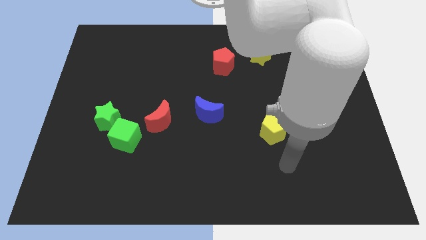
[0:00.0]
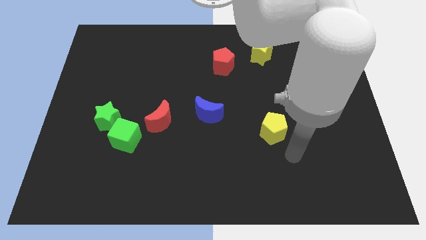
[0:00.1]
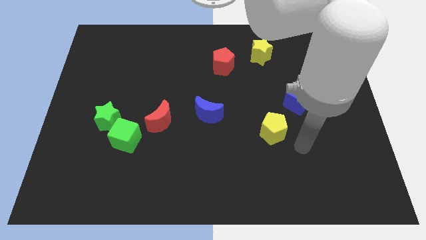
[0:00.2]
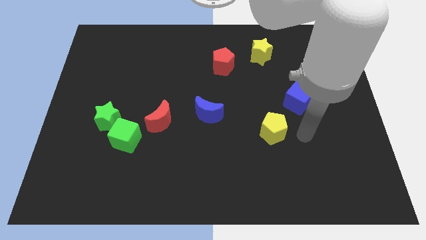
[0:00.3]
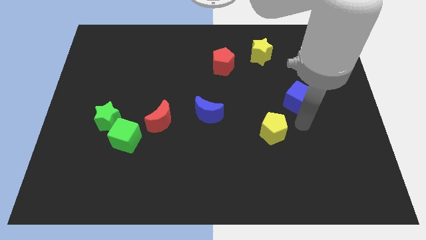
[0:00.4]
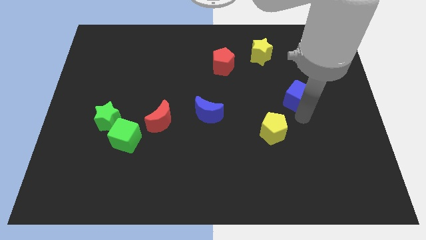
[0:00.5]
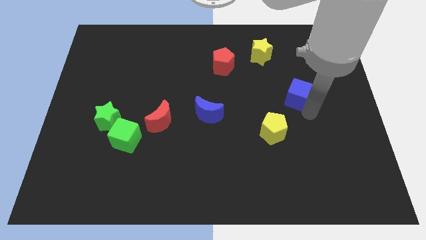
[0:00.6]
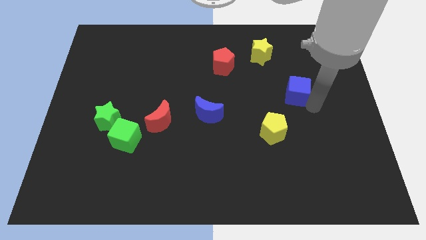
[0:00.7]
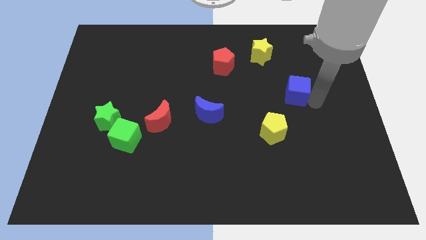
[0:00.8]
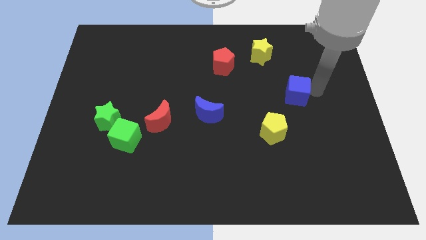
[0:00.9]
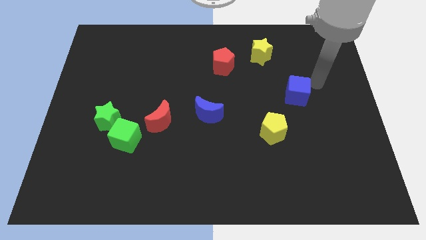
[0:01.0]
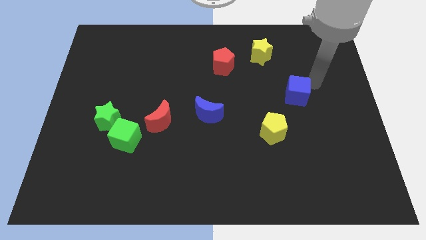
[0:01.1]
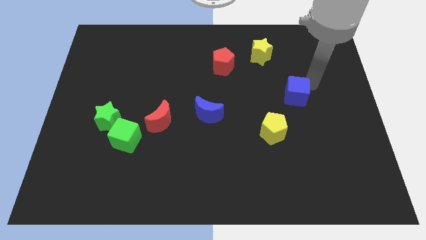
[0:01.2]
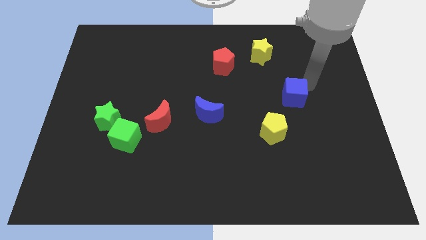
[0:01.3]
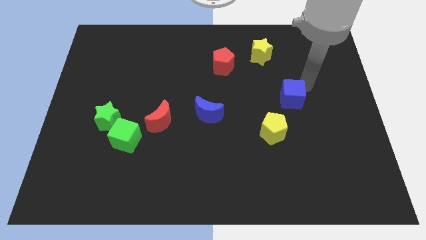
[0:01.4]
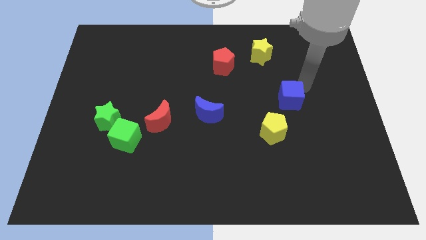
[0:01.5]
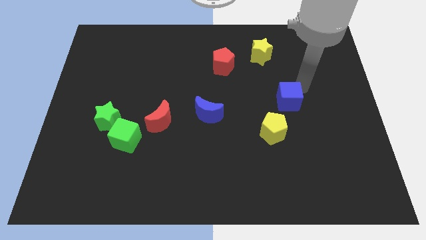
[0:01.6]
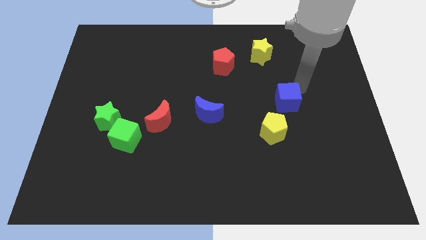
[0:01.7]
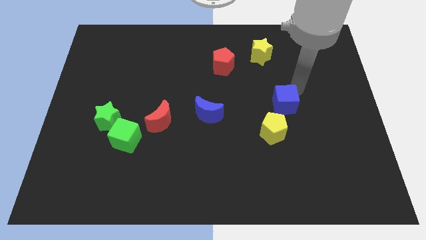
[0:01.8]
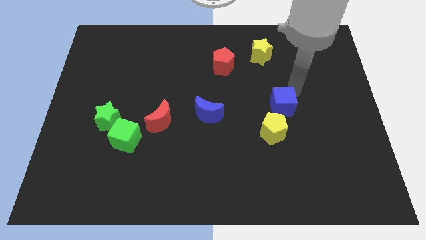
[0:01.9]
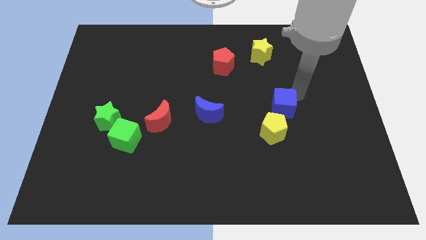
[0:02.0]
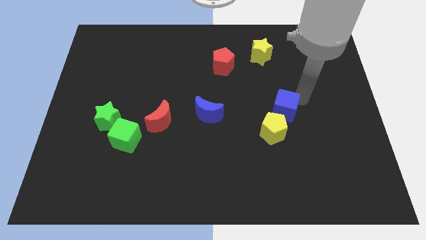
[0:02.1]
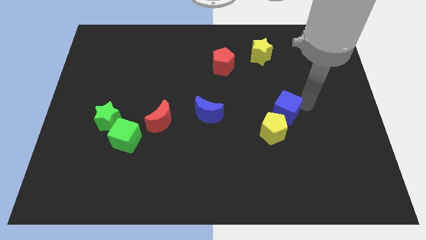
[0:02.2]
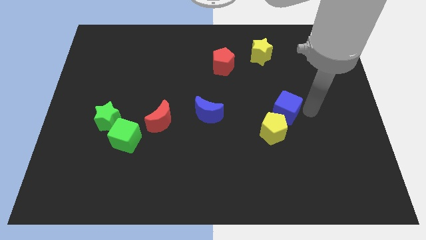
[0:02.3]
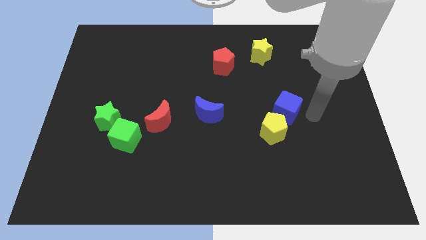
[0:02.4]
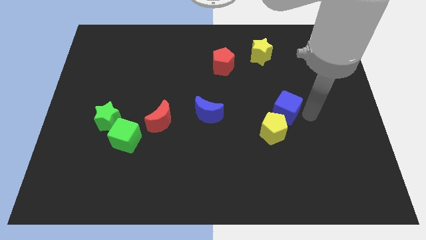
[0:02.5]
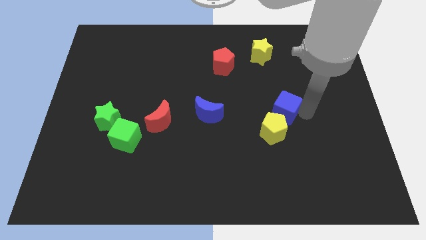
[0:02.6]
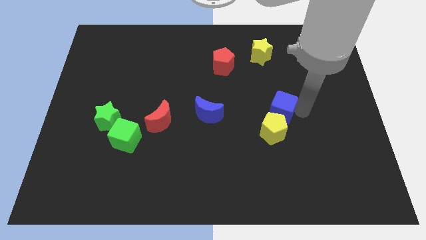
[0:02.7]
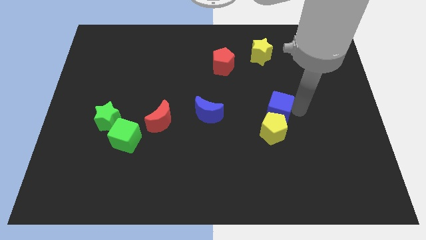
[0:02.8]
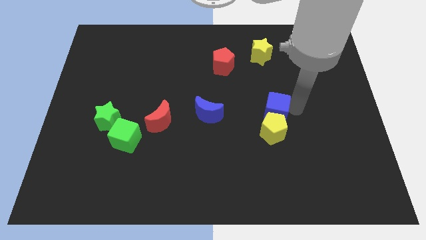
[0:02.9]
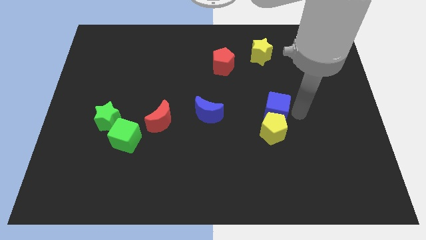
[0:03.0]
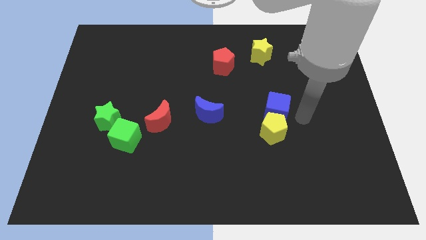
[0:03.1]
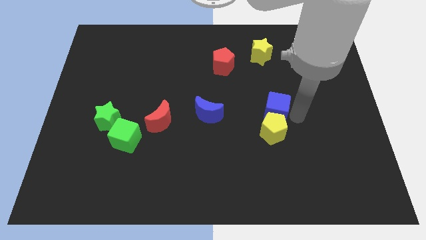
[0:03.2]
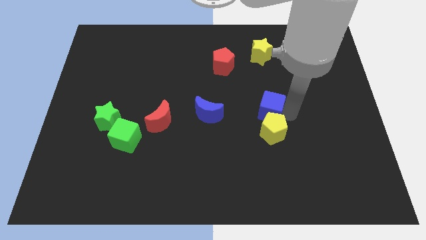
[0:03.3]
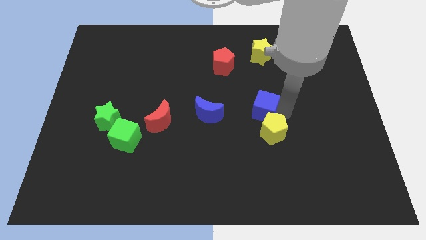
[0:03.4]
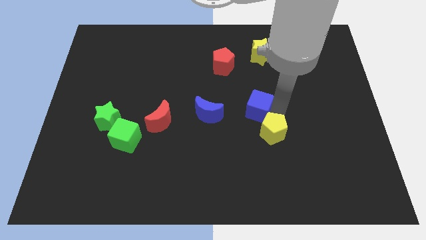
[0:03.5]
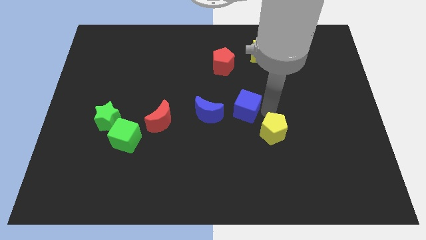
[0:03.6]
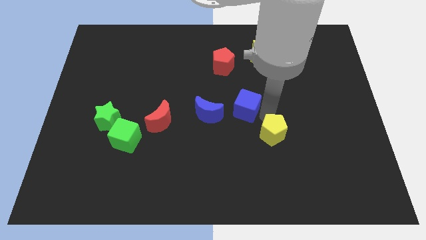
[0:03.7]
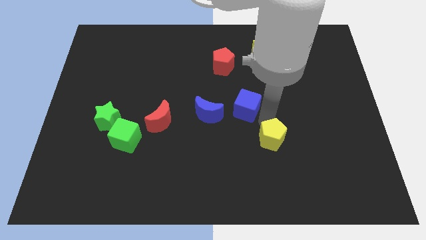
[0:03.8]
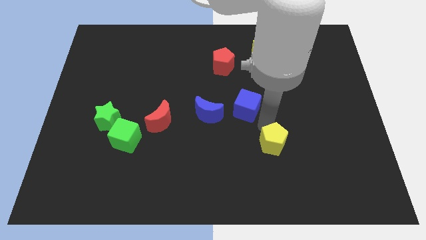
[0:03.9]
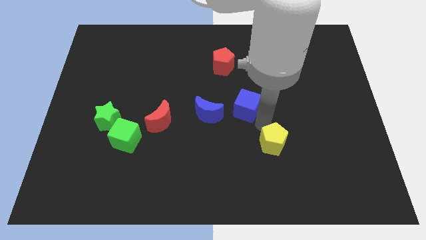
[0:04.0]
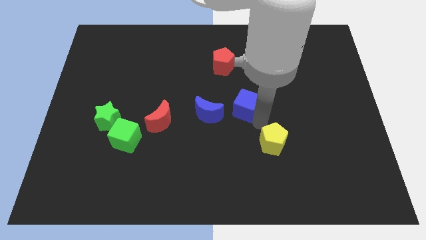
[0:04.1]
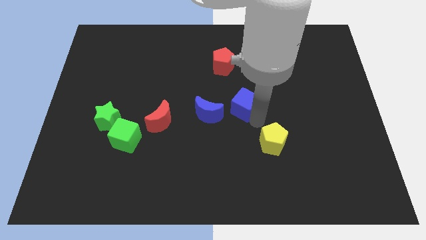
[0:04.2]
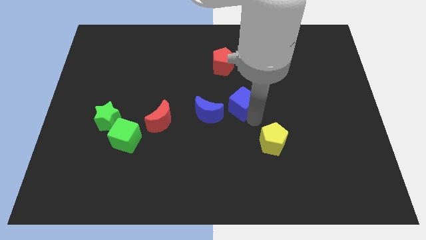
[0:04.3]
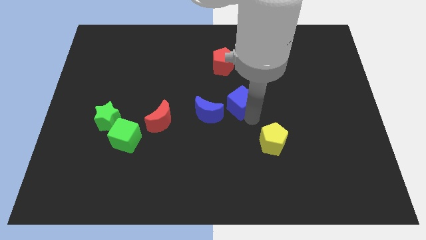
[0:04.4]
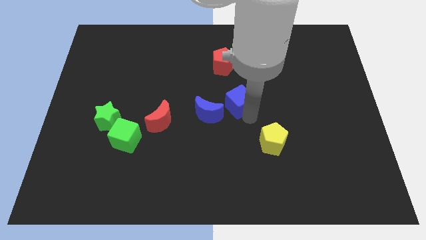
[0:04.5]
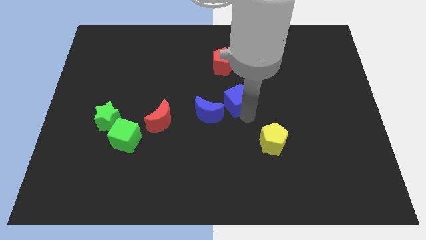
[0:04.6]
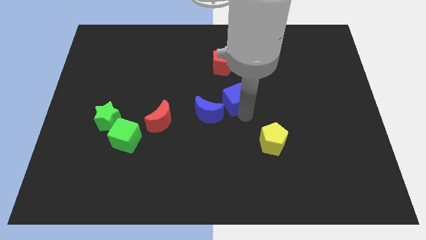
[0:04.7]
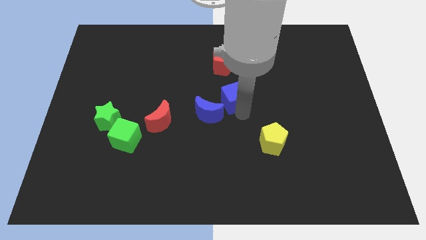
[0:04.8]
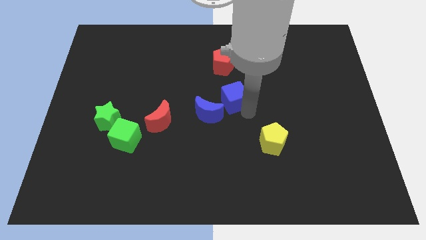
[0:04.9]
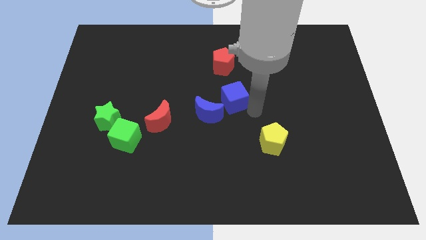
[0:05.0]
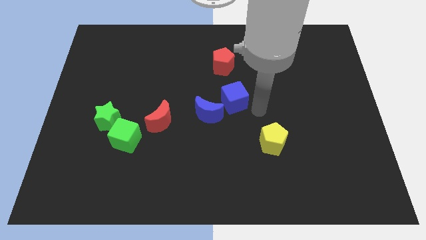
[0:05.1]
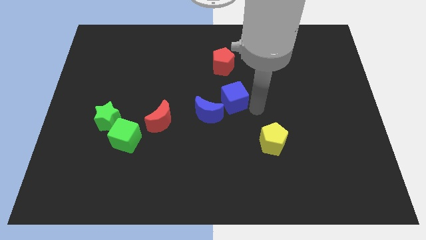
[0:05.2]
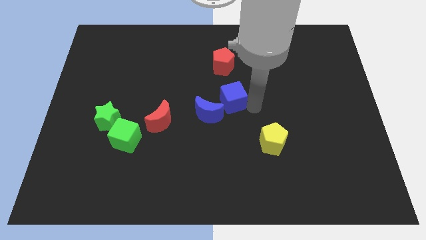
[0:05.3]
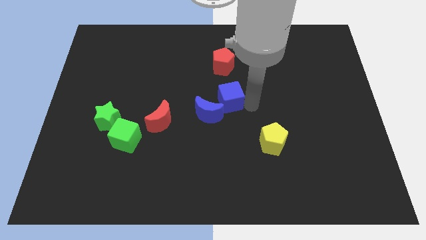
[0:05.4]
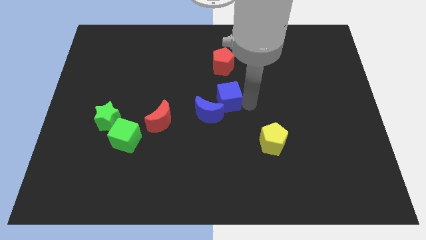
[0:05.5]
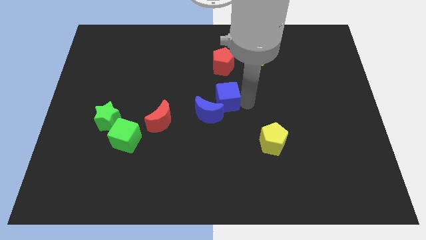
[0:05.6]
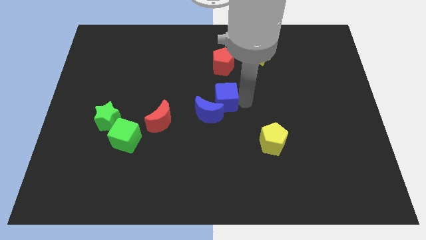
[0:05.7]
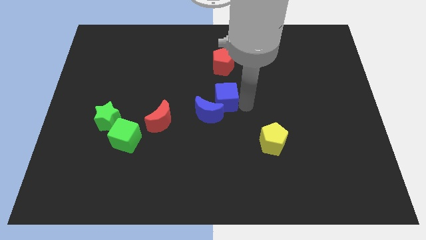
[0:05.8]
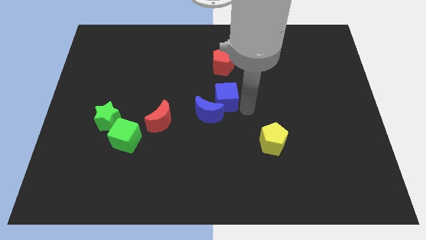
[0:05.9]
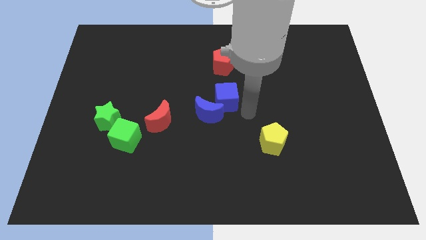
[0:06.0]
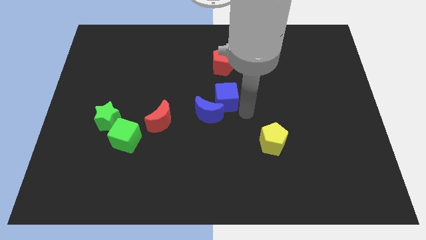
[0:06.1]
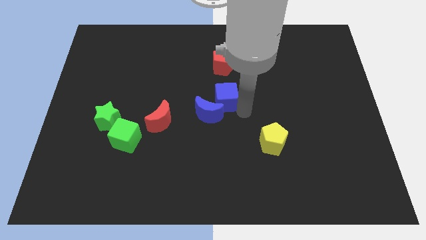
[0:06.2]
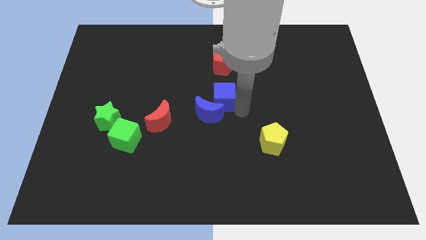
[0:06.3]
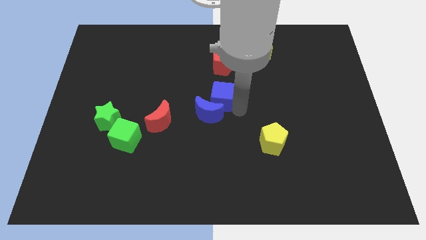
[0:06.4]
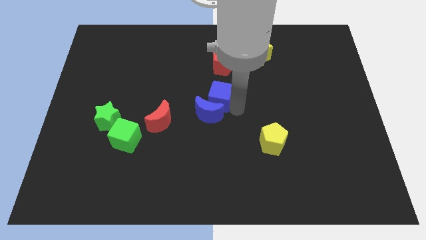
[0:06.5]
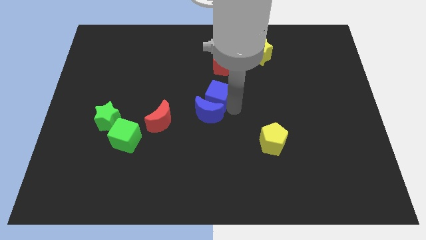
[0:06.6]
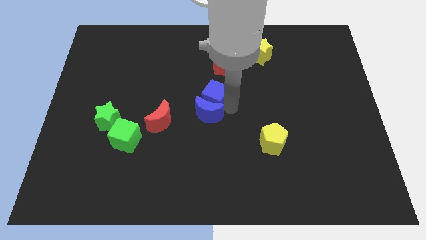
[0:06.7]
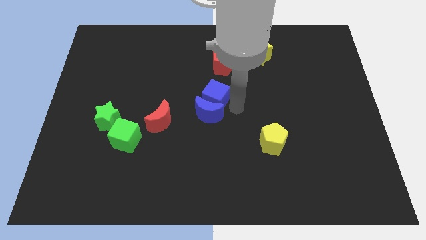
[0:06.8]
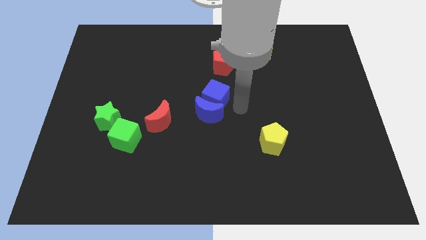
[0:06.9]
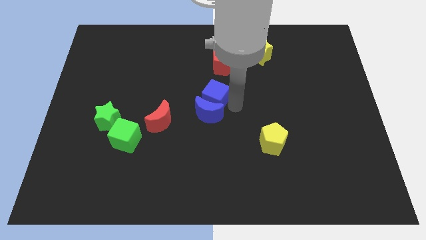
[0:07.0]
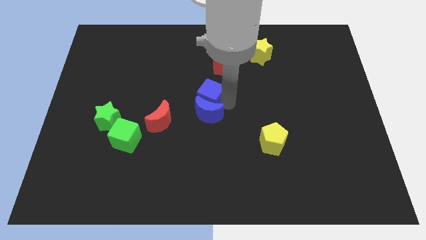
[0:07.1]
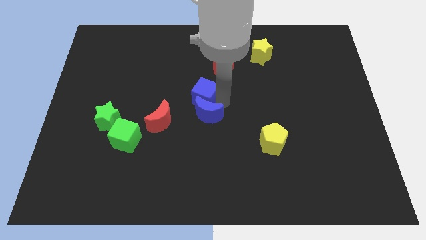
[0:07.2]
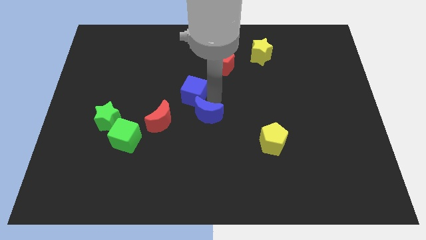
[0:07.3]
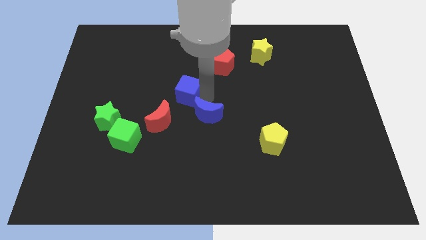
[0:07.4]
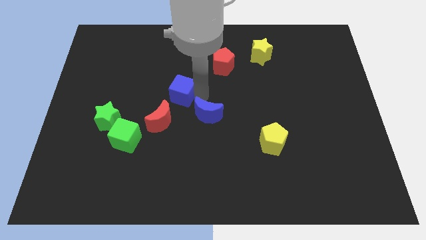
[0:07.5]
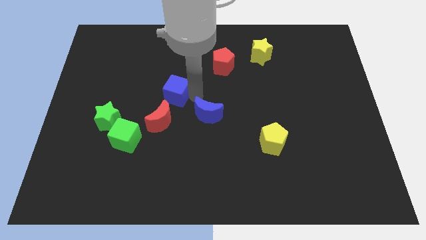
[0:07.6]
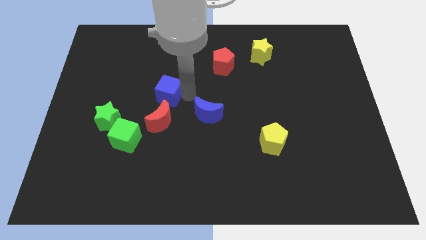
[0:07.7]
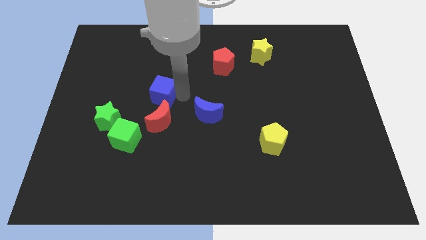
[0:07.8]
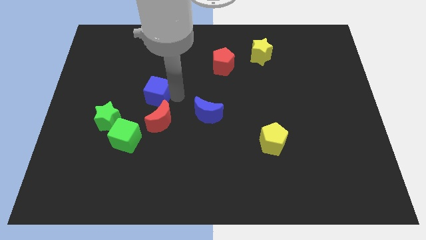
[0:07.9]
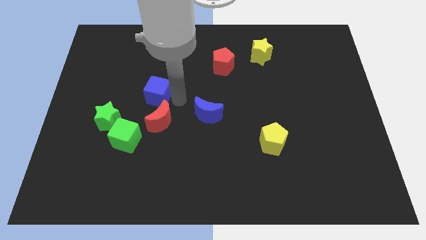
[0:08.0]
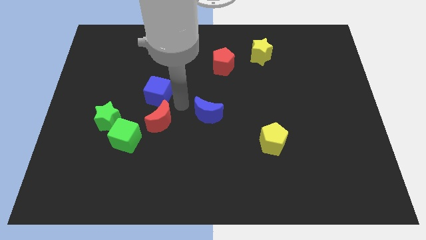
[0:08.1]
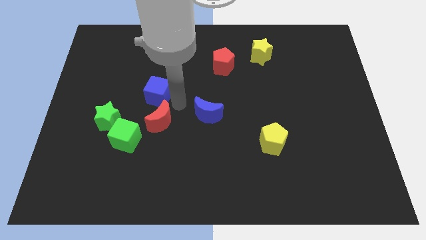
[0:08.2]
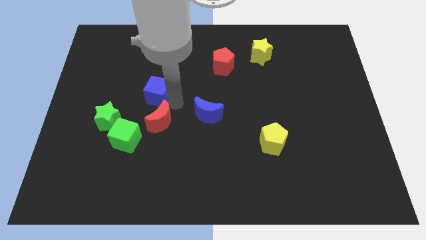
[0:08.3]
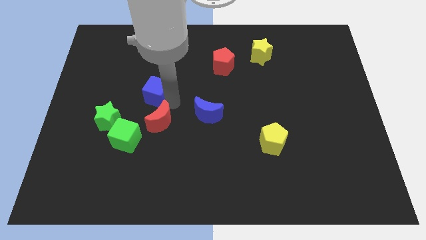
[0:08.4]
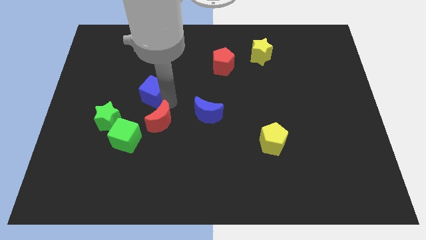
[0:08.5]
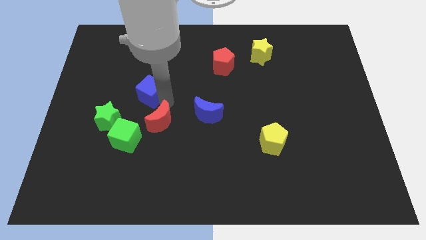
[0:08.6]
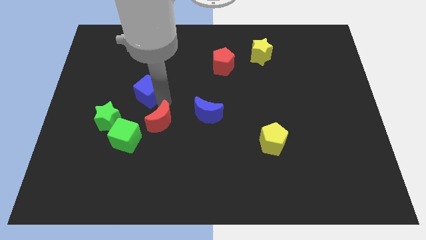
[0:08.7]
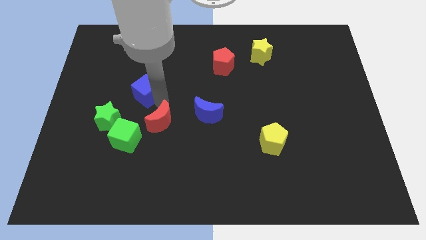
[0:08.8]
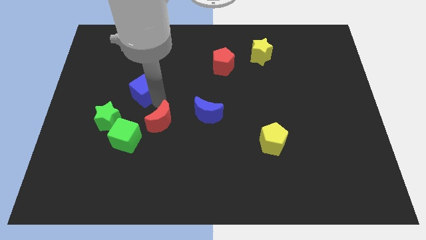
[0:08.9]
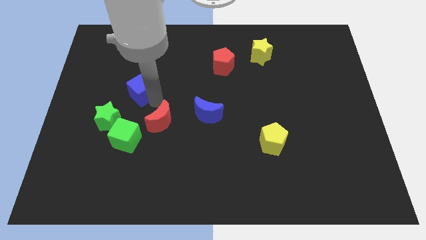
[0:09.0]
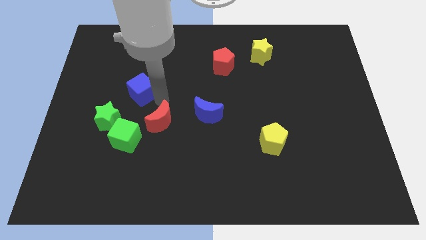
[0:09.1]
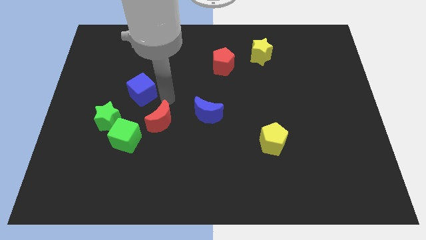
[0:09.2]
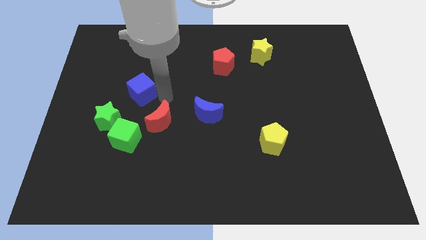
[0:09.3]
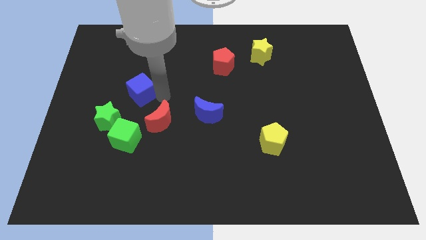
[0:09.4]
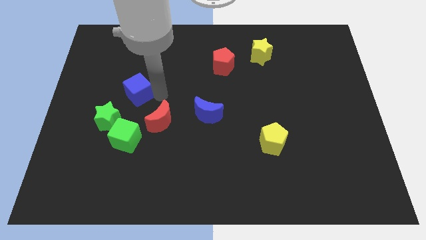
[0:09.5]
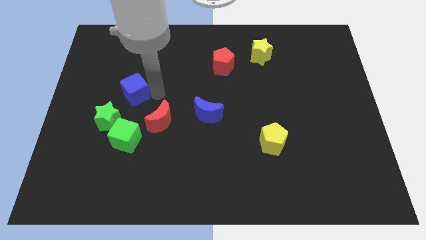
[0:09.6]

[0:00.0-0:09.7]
move the blue cube to the top of the green star
